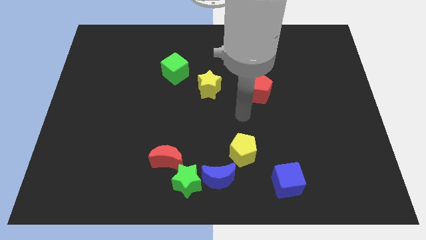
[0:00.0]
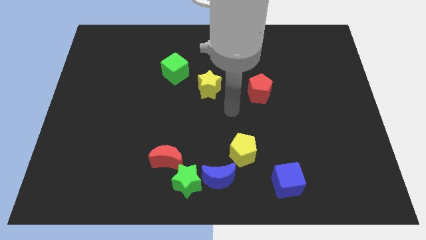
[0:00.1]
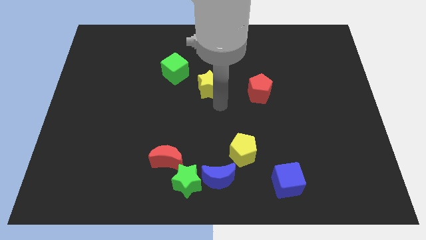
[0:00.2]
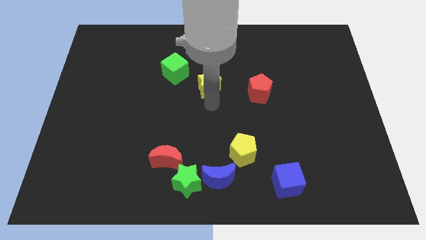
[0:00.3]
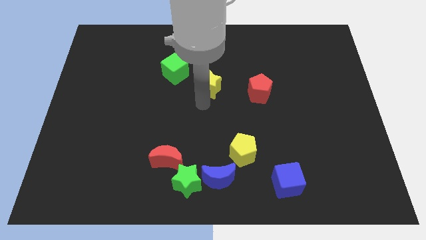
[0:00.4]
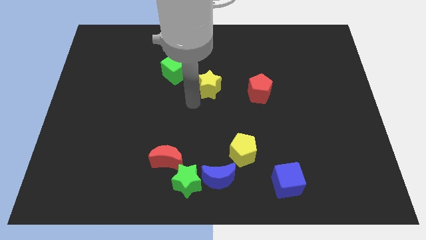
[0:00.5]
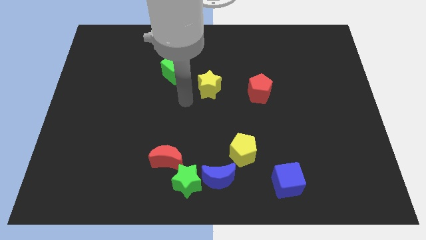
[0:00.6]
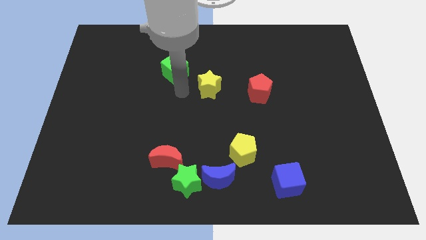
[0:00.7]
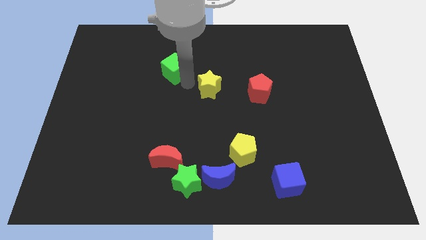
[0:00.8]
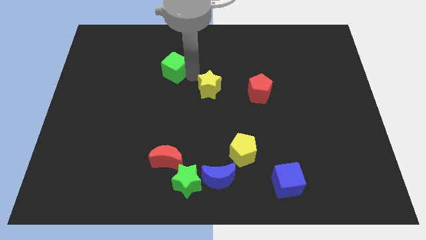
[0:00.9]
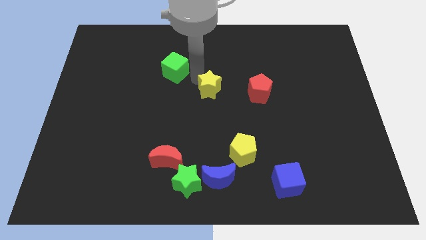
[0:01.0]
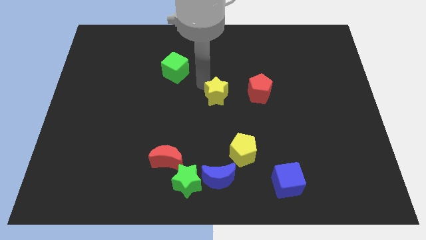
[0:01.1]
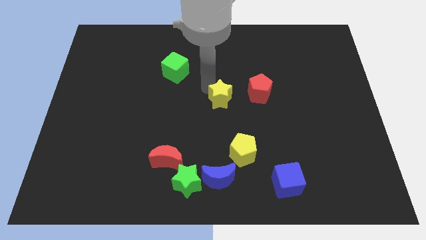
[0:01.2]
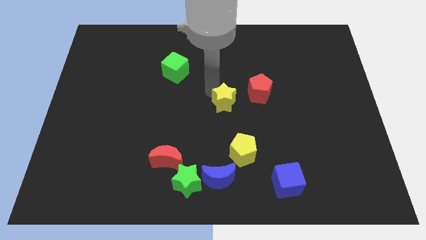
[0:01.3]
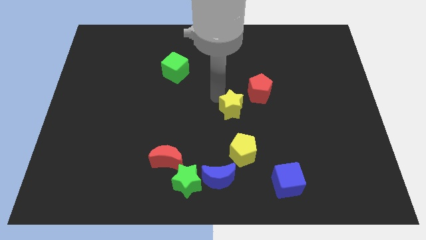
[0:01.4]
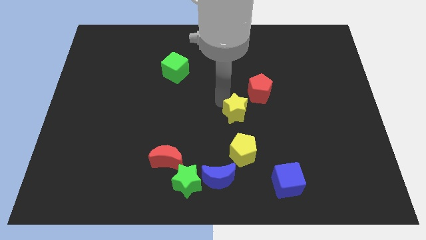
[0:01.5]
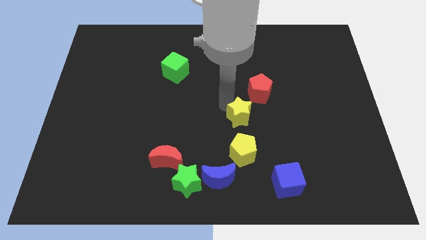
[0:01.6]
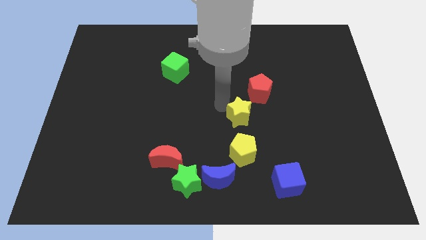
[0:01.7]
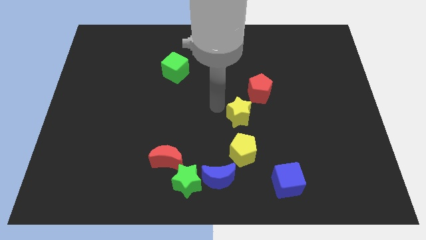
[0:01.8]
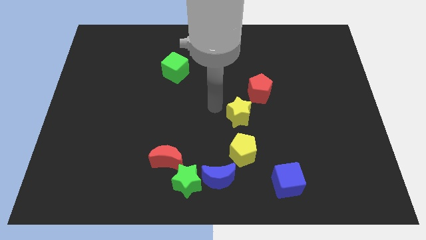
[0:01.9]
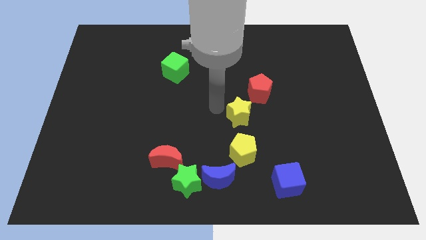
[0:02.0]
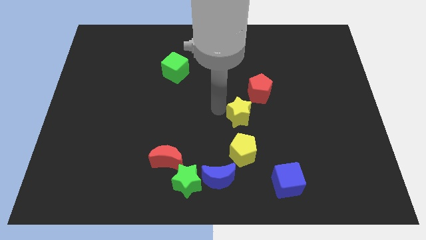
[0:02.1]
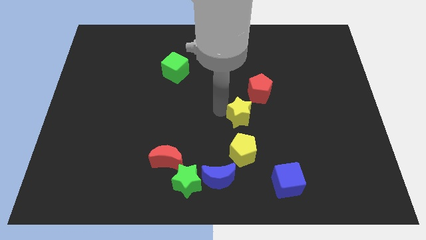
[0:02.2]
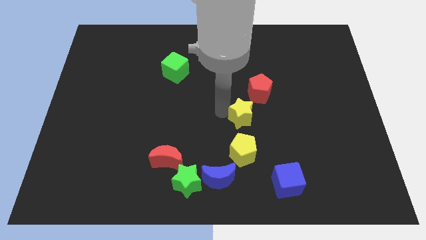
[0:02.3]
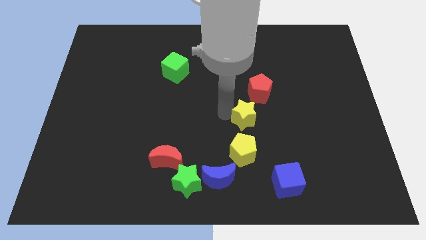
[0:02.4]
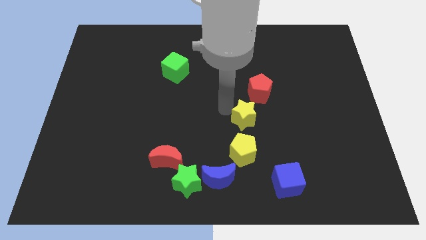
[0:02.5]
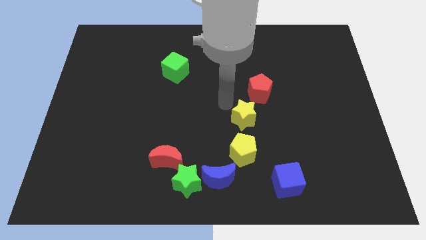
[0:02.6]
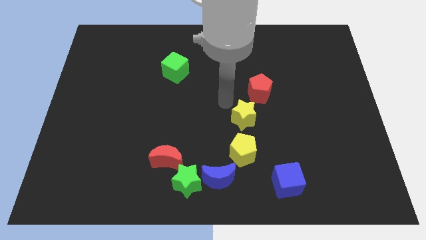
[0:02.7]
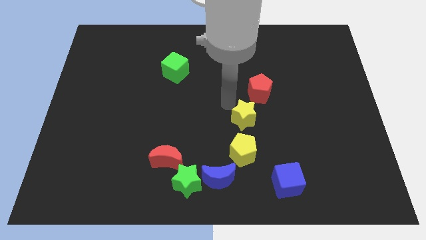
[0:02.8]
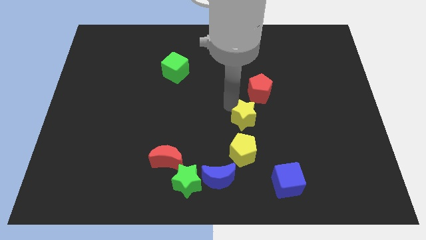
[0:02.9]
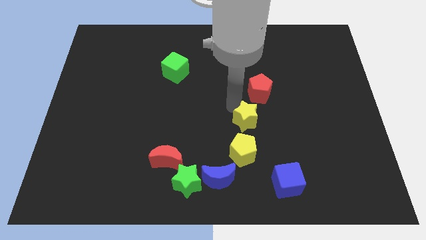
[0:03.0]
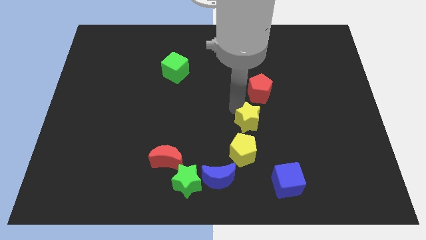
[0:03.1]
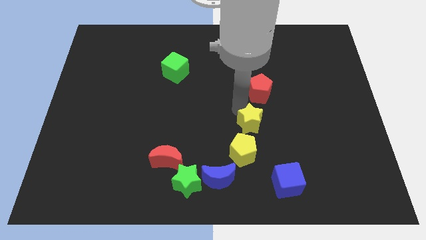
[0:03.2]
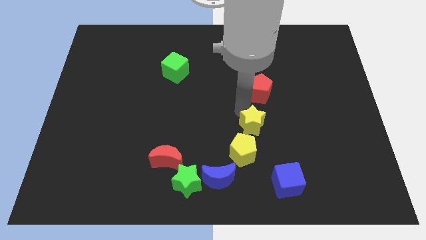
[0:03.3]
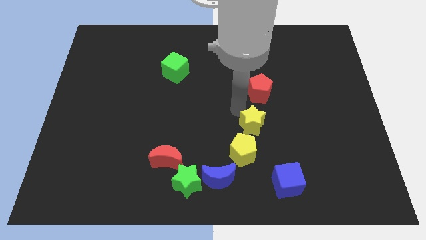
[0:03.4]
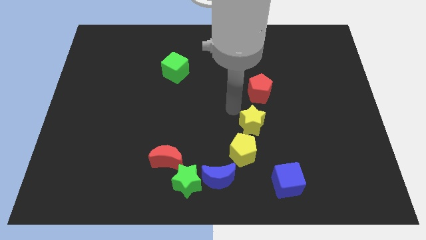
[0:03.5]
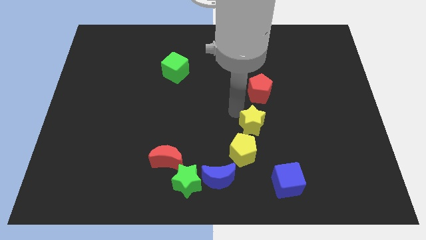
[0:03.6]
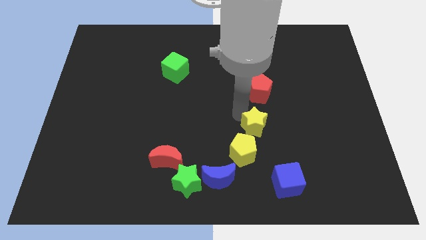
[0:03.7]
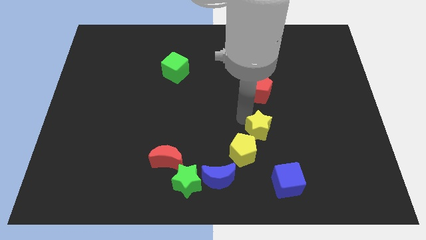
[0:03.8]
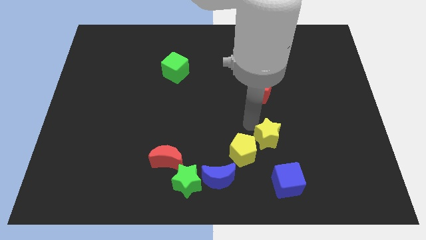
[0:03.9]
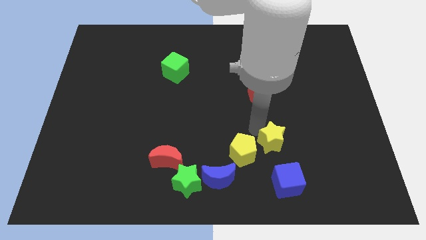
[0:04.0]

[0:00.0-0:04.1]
slide the yellow star down and right diagonally

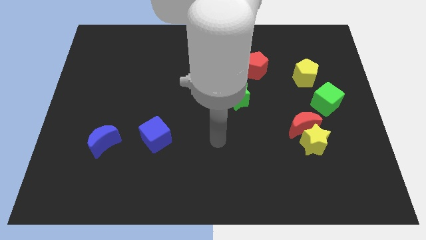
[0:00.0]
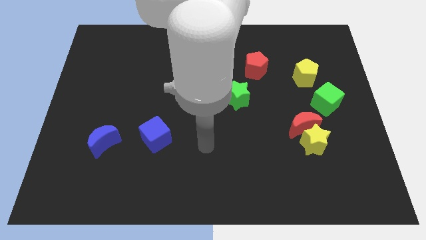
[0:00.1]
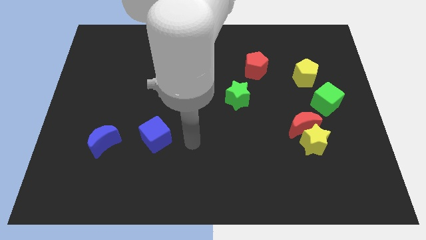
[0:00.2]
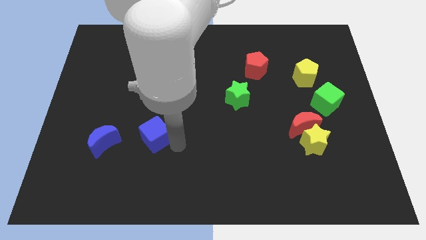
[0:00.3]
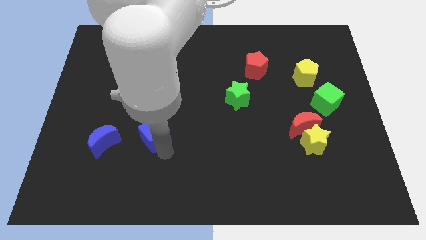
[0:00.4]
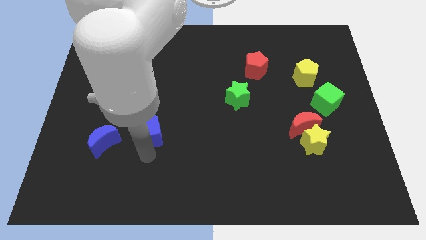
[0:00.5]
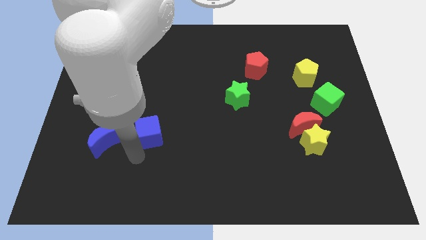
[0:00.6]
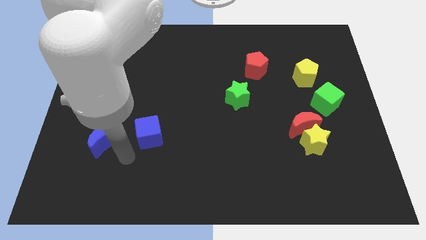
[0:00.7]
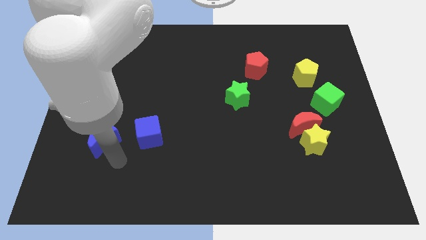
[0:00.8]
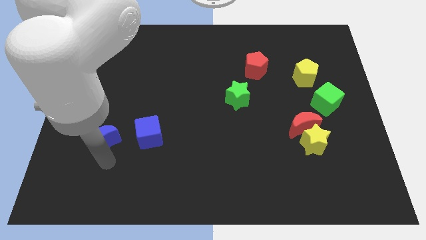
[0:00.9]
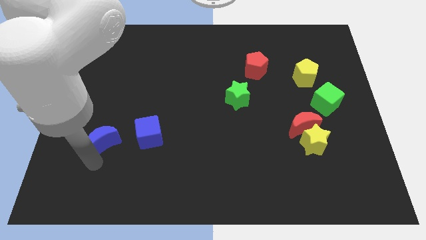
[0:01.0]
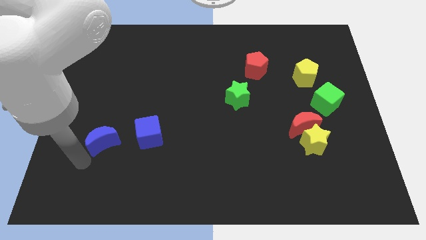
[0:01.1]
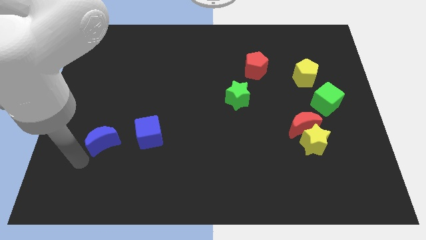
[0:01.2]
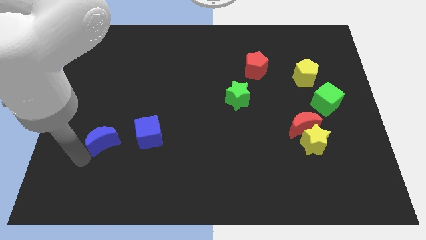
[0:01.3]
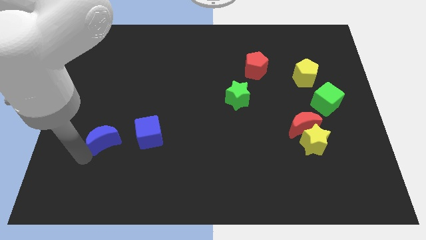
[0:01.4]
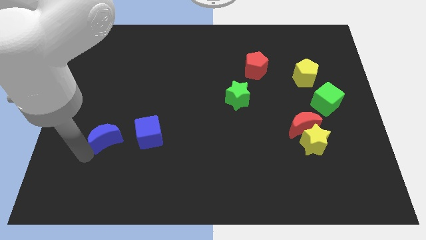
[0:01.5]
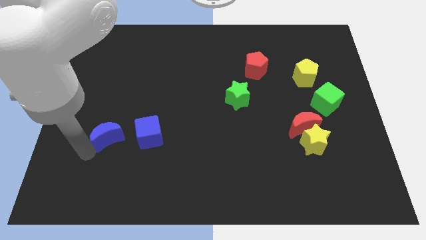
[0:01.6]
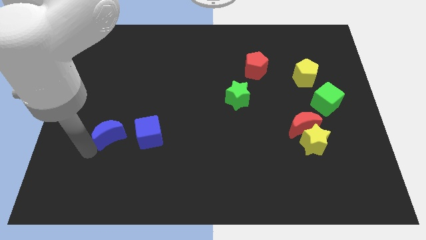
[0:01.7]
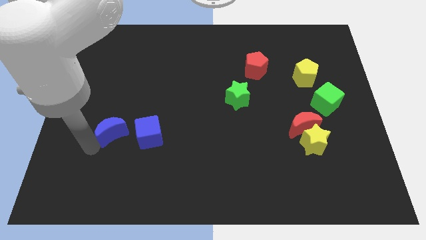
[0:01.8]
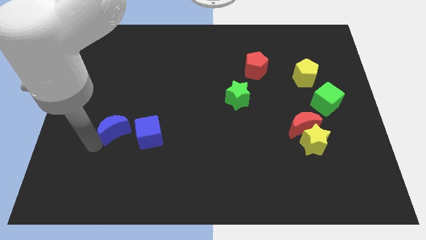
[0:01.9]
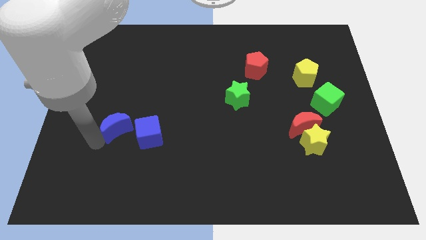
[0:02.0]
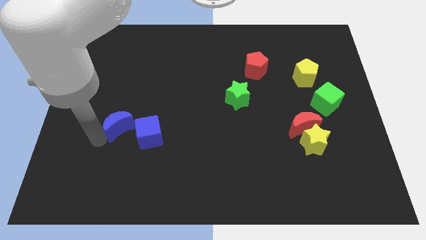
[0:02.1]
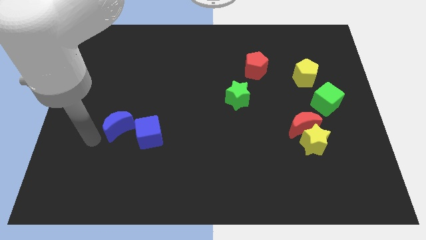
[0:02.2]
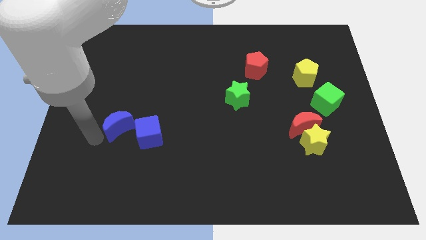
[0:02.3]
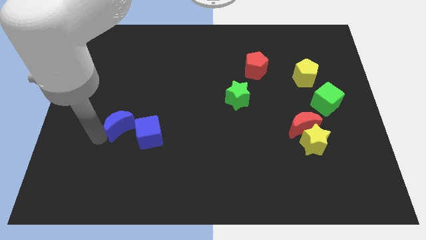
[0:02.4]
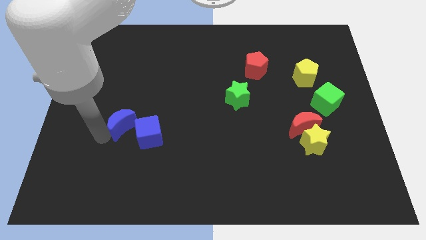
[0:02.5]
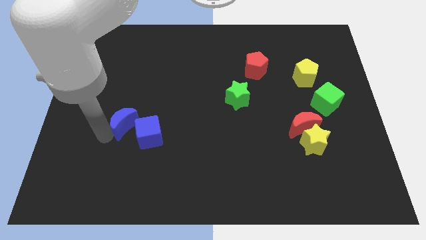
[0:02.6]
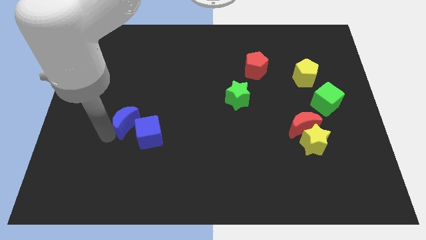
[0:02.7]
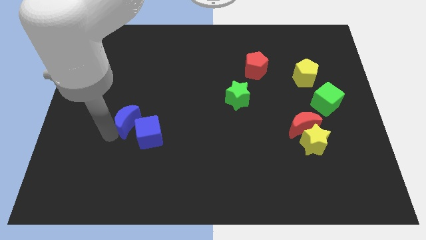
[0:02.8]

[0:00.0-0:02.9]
move the blue moon a little diagonally up and to the right

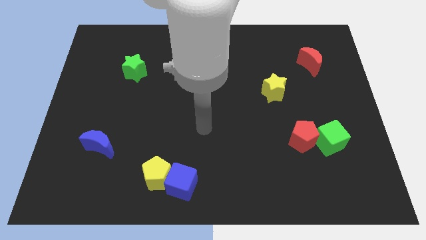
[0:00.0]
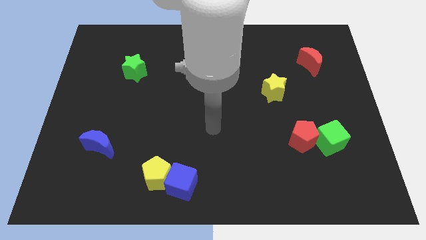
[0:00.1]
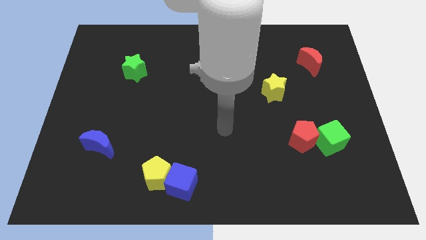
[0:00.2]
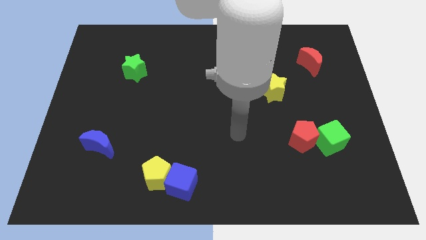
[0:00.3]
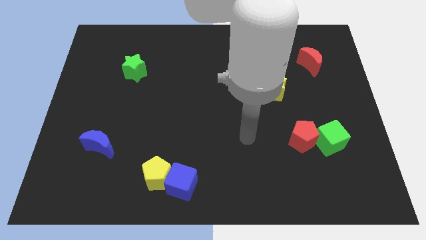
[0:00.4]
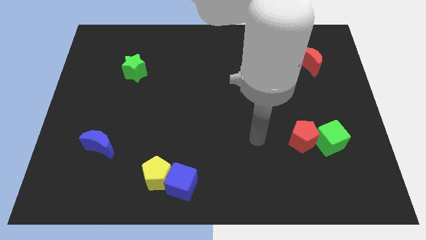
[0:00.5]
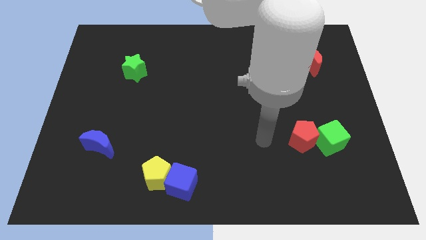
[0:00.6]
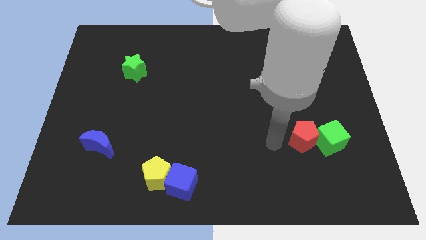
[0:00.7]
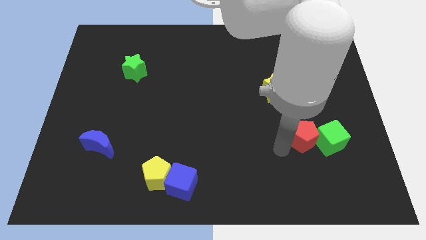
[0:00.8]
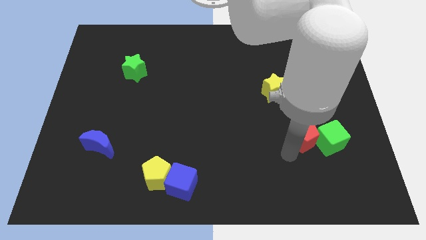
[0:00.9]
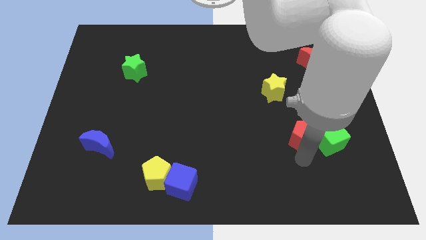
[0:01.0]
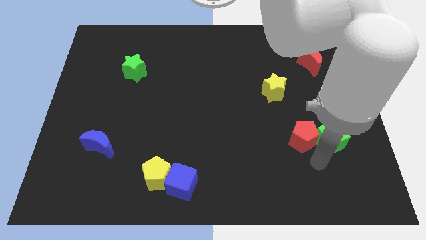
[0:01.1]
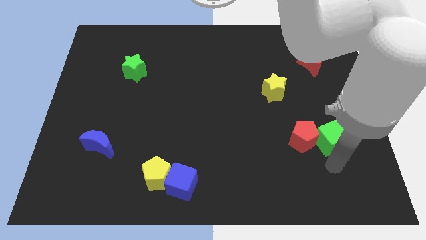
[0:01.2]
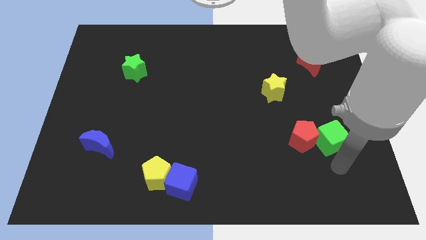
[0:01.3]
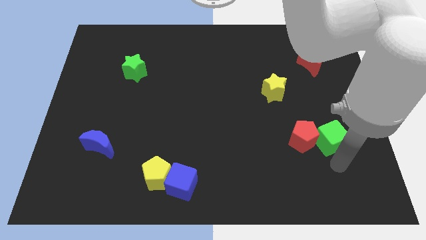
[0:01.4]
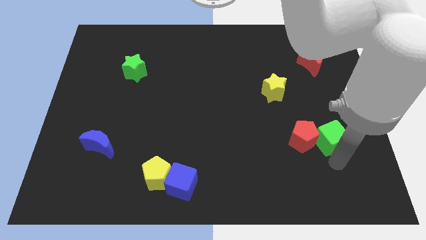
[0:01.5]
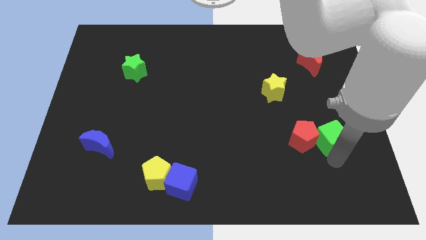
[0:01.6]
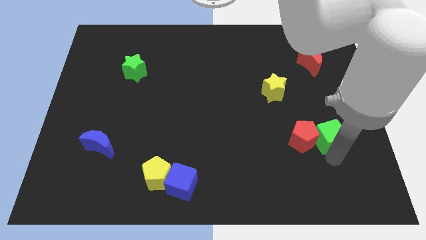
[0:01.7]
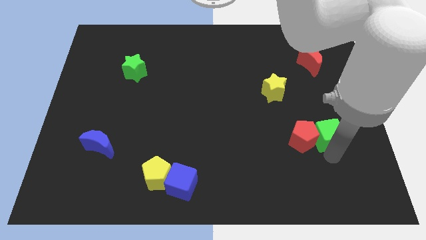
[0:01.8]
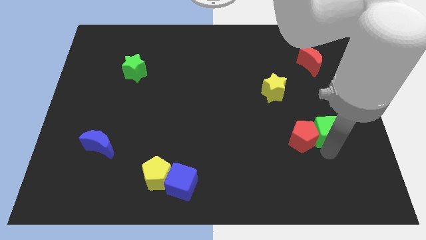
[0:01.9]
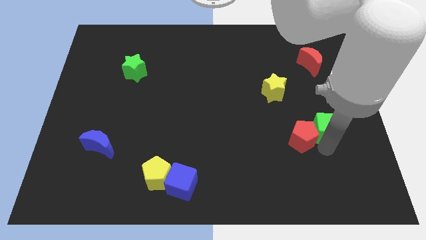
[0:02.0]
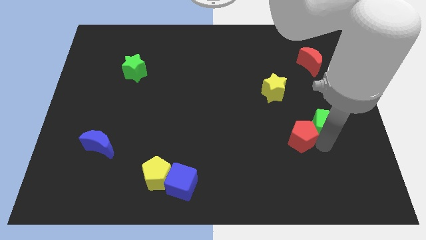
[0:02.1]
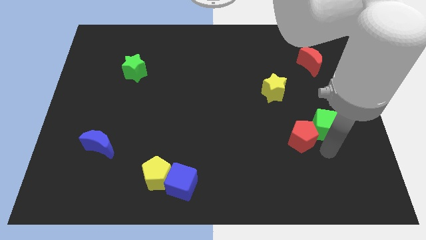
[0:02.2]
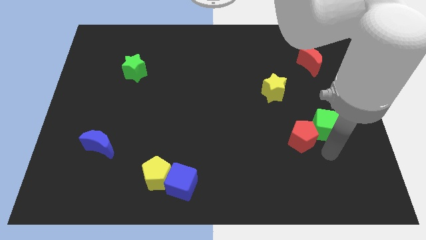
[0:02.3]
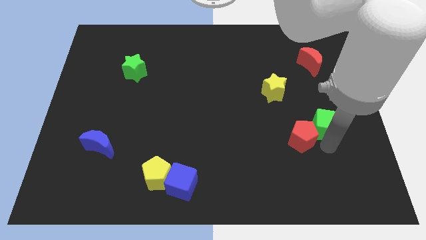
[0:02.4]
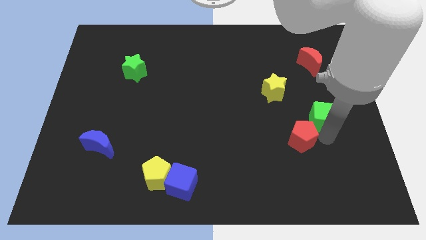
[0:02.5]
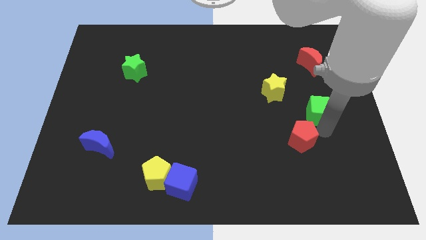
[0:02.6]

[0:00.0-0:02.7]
push the green cube upwards a little bit
